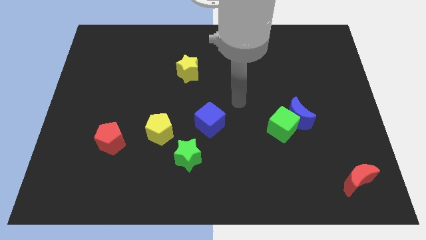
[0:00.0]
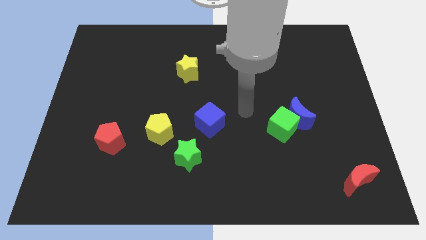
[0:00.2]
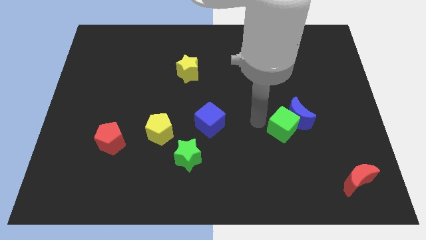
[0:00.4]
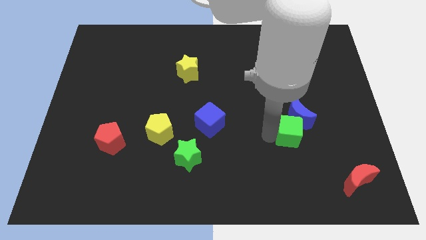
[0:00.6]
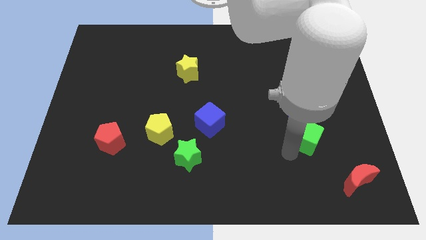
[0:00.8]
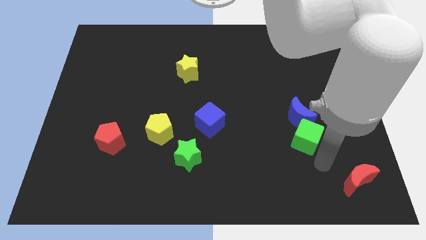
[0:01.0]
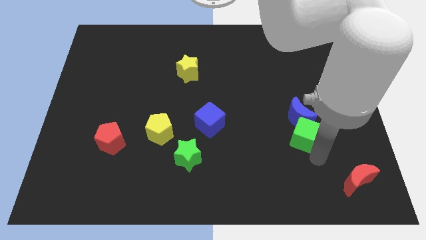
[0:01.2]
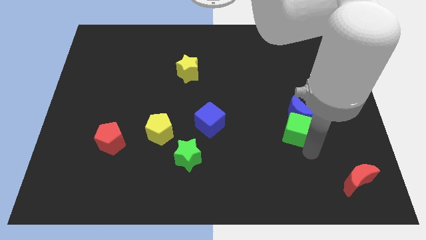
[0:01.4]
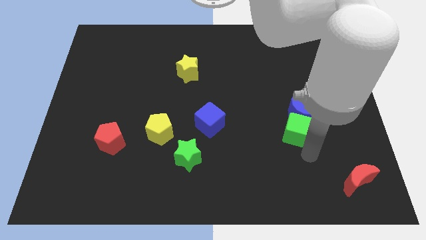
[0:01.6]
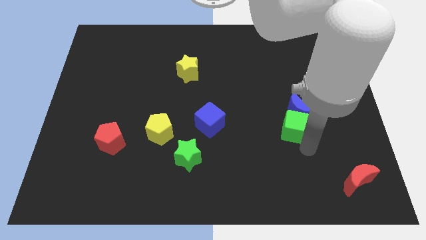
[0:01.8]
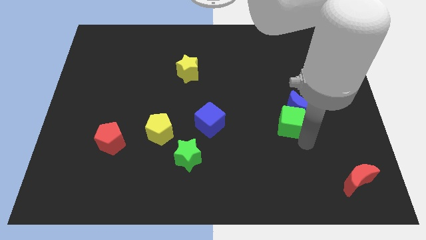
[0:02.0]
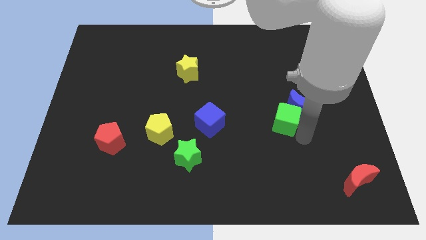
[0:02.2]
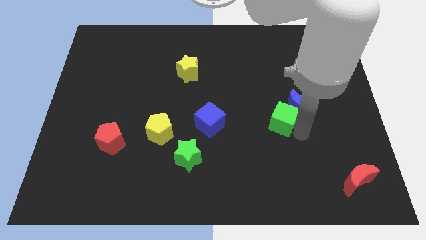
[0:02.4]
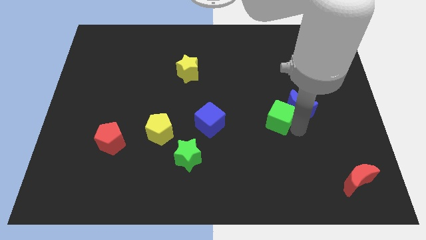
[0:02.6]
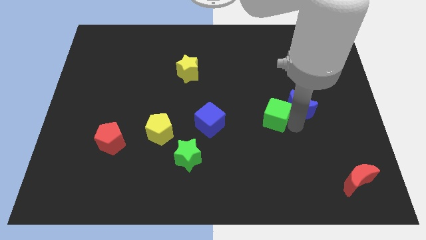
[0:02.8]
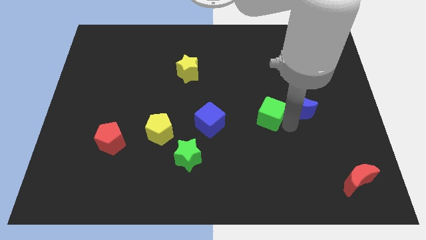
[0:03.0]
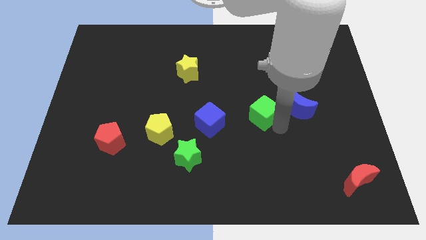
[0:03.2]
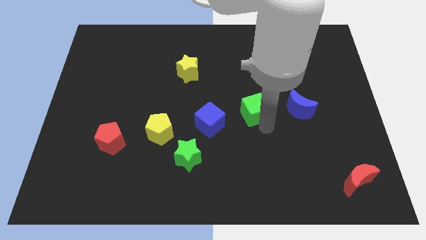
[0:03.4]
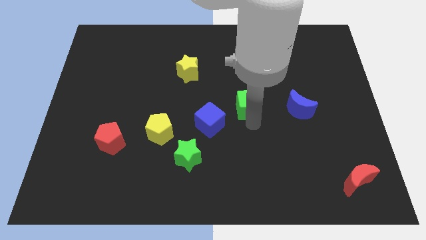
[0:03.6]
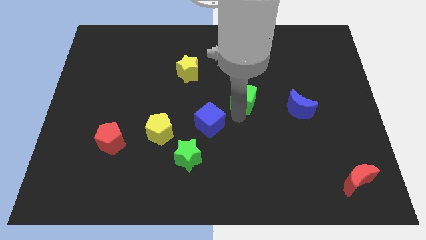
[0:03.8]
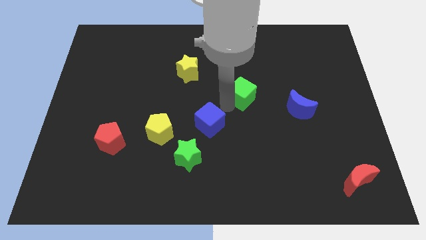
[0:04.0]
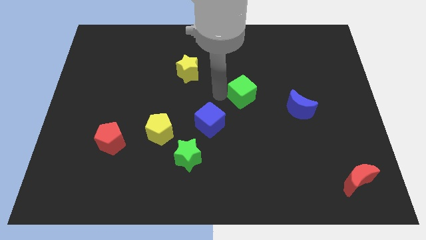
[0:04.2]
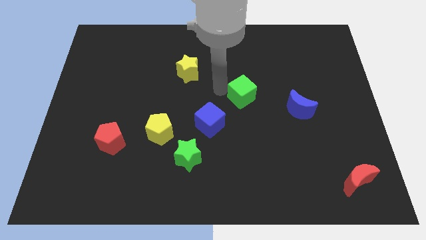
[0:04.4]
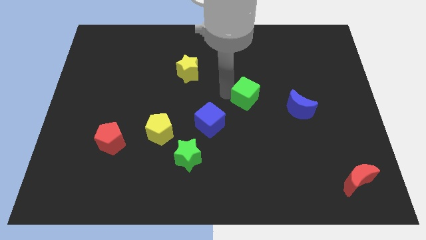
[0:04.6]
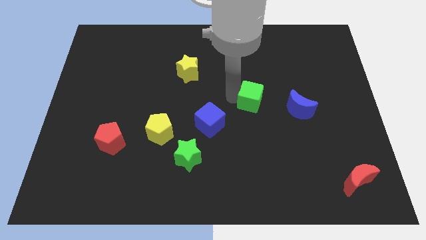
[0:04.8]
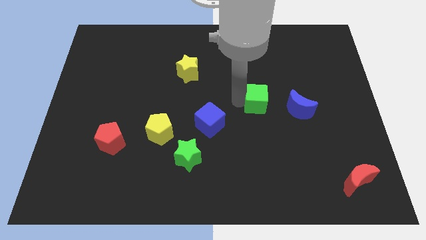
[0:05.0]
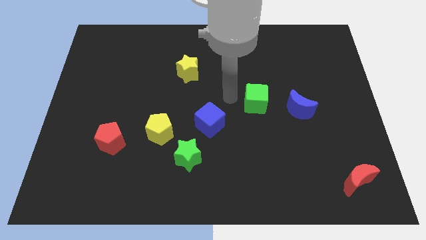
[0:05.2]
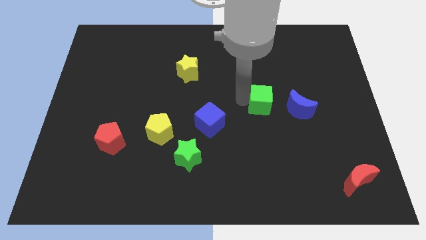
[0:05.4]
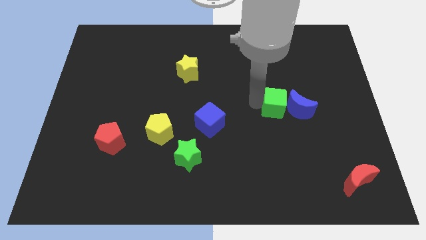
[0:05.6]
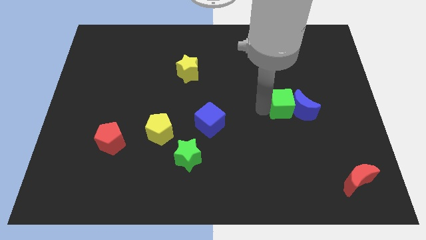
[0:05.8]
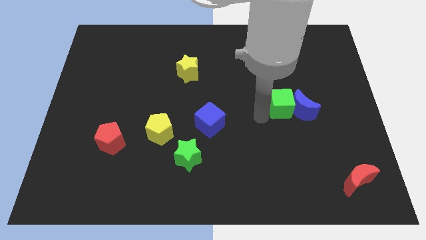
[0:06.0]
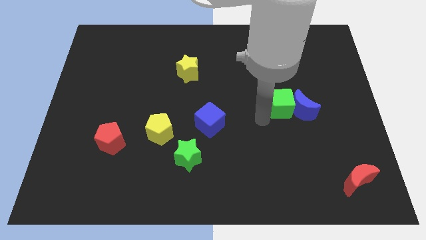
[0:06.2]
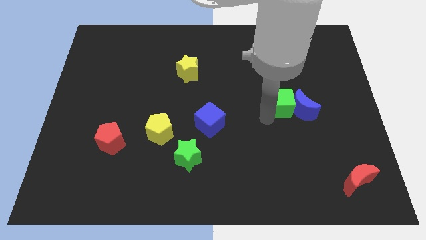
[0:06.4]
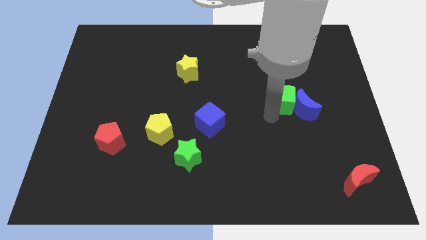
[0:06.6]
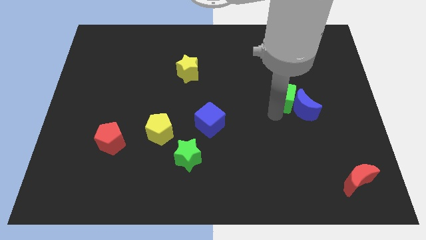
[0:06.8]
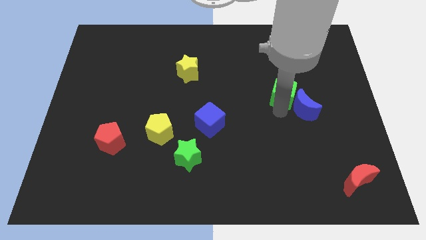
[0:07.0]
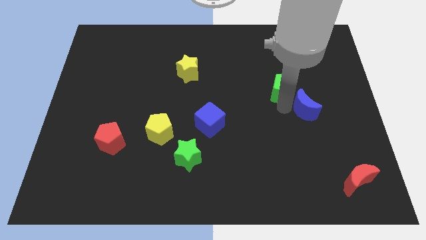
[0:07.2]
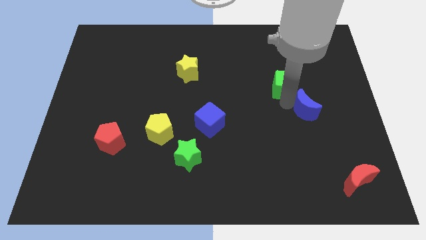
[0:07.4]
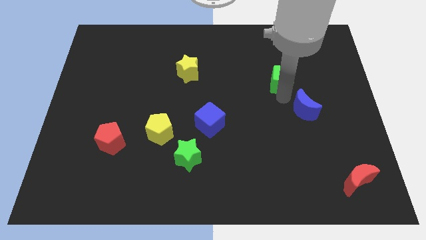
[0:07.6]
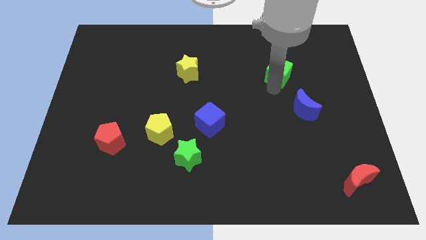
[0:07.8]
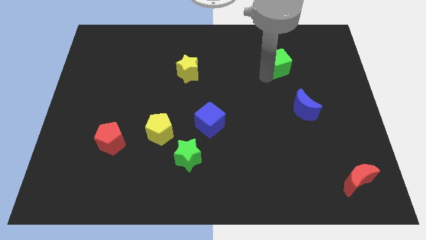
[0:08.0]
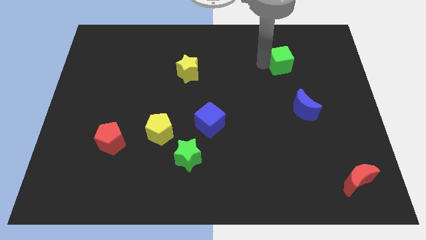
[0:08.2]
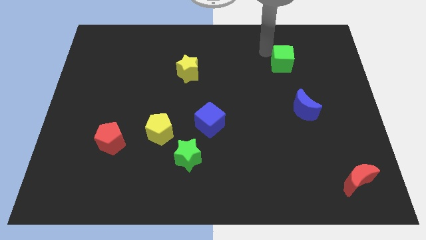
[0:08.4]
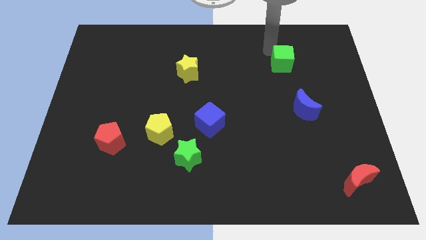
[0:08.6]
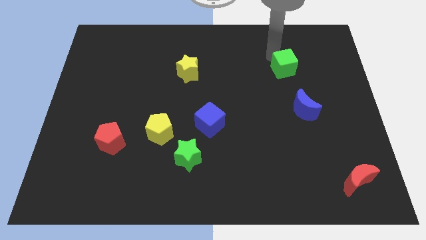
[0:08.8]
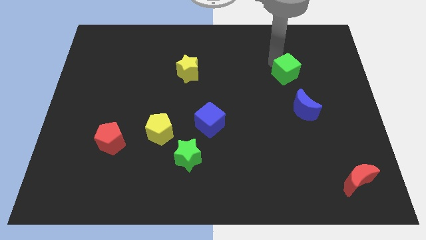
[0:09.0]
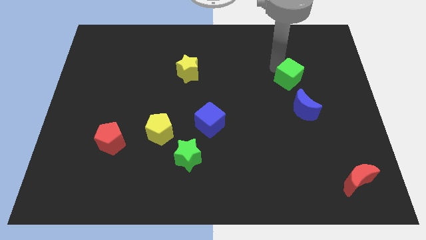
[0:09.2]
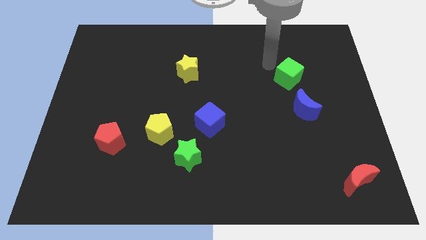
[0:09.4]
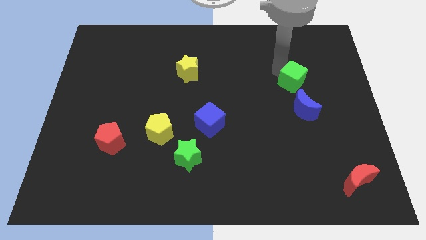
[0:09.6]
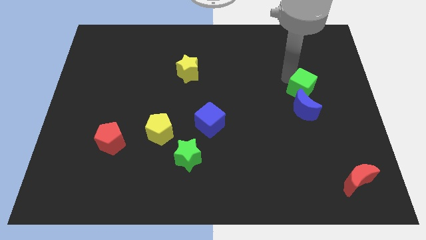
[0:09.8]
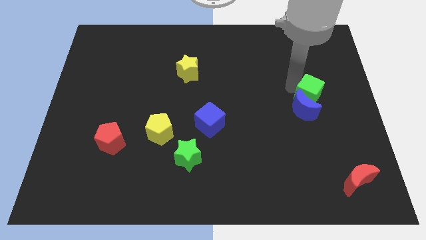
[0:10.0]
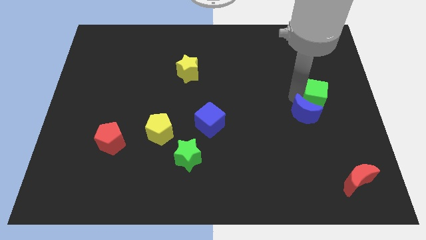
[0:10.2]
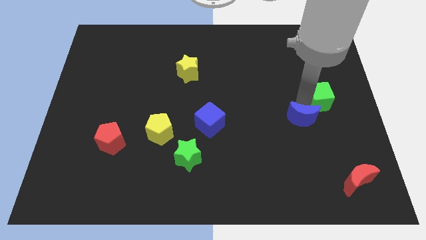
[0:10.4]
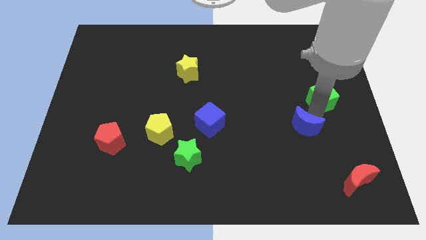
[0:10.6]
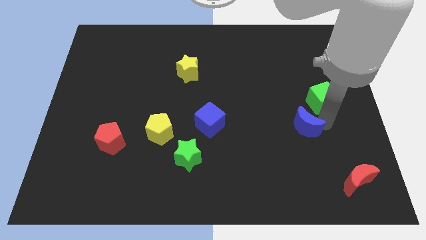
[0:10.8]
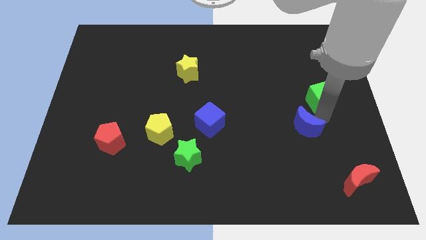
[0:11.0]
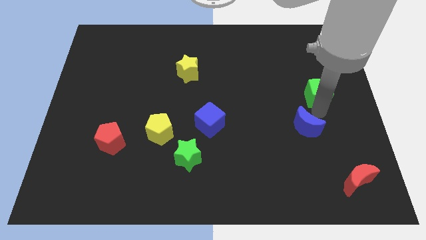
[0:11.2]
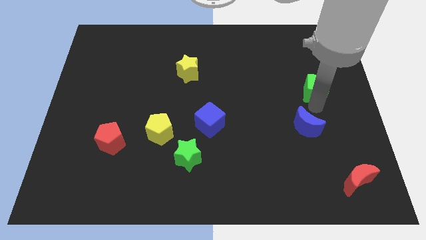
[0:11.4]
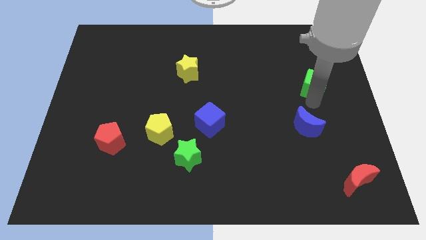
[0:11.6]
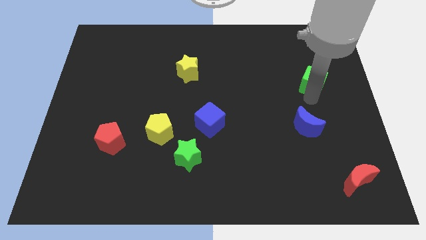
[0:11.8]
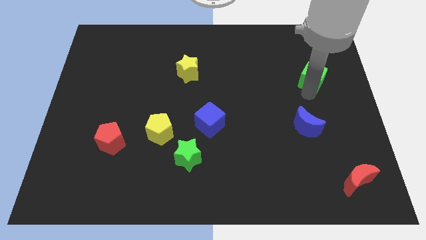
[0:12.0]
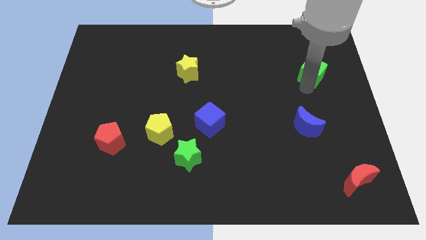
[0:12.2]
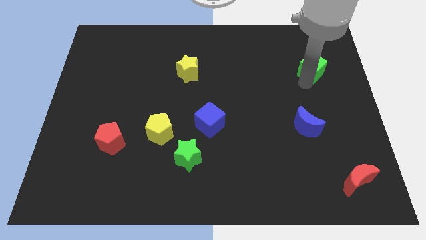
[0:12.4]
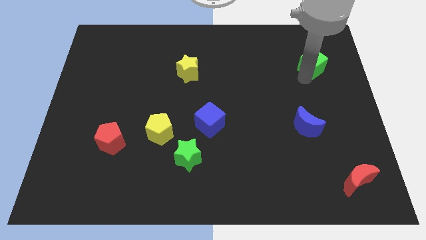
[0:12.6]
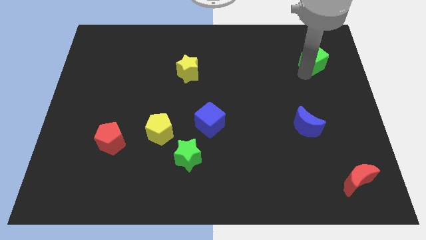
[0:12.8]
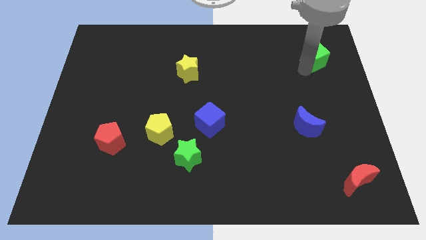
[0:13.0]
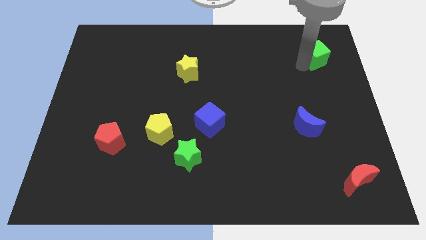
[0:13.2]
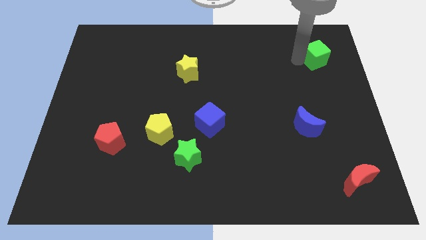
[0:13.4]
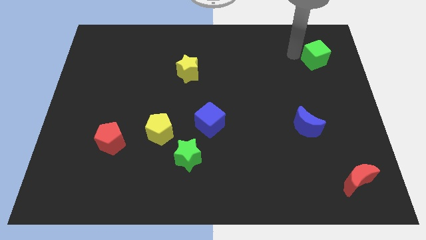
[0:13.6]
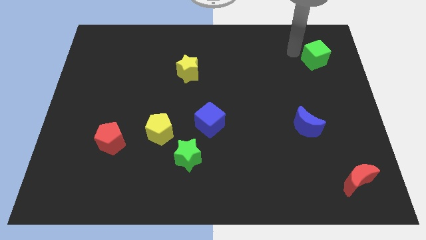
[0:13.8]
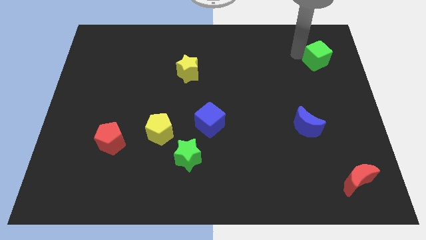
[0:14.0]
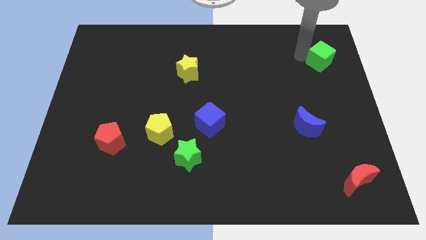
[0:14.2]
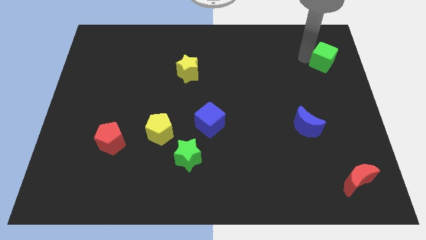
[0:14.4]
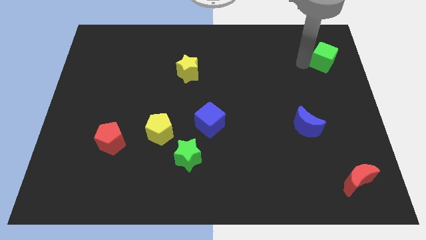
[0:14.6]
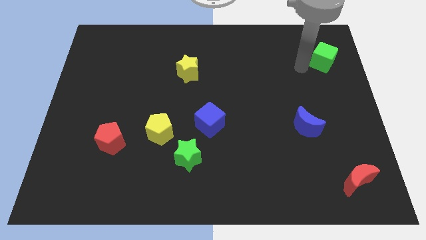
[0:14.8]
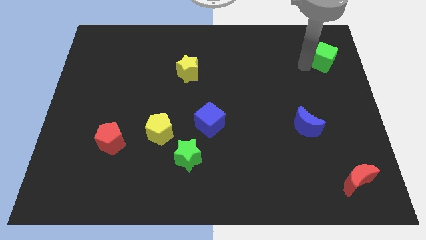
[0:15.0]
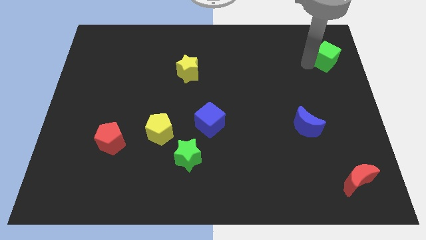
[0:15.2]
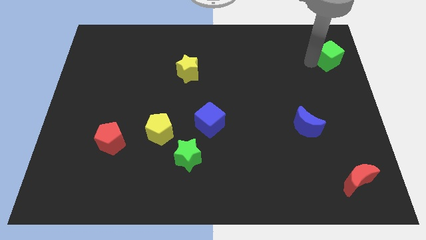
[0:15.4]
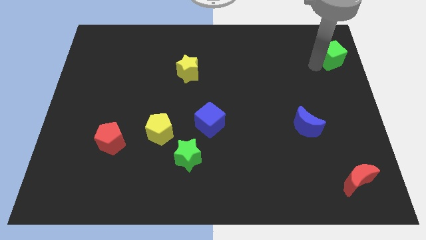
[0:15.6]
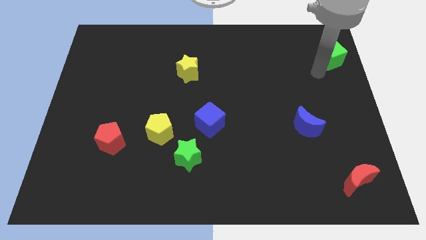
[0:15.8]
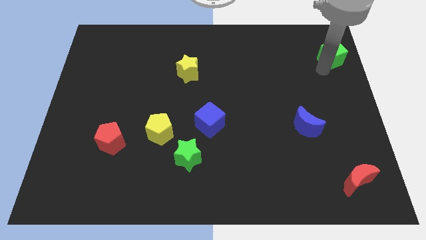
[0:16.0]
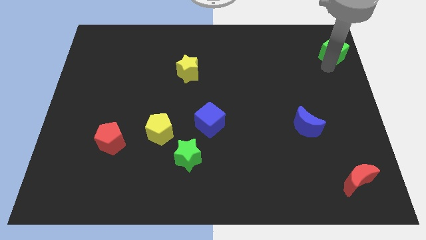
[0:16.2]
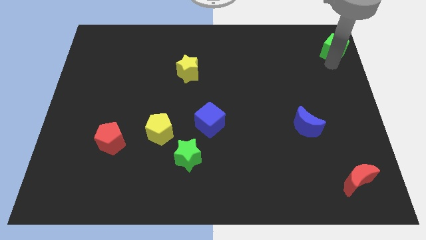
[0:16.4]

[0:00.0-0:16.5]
put the green cube to the top right
